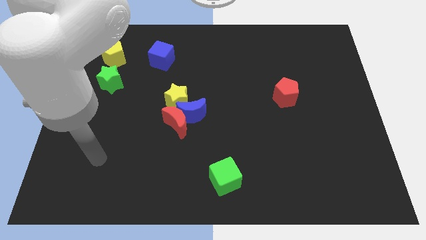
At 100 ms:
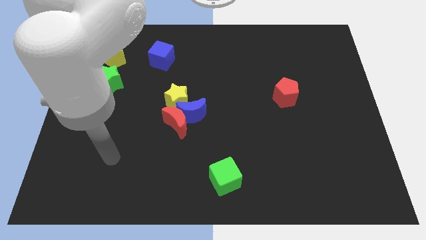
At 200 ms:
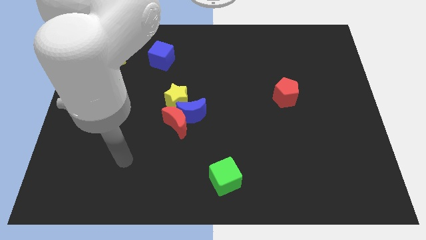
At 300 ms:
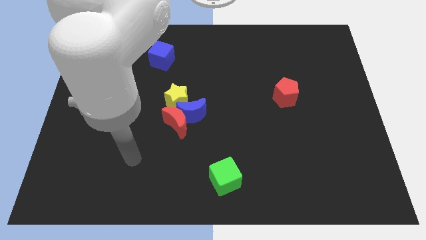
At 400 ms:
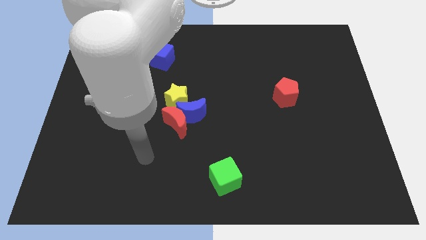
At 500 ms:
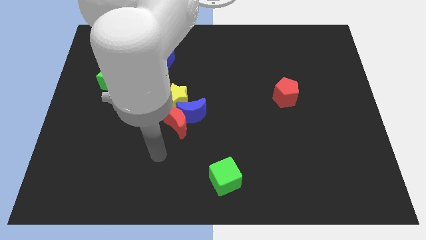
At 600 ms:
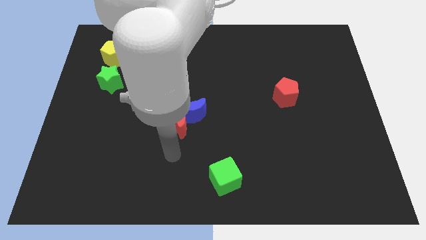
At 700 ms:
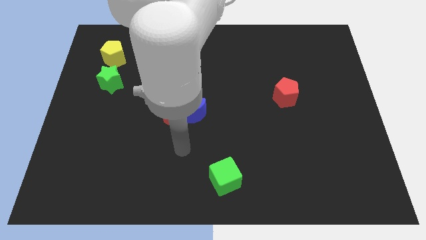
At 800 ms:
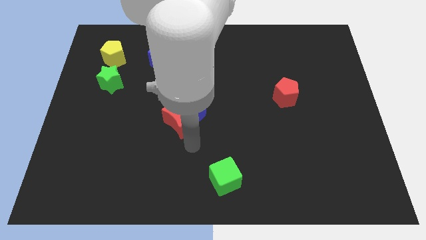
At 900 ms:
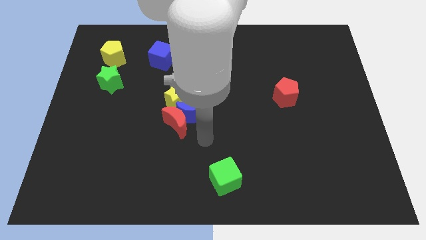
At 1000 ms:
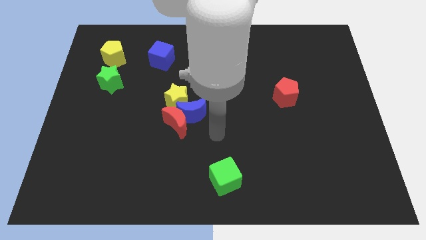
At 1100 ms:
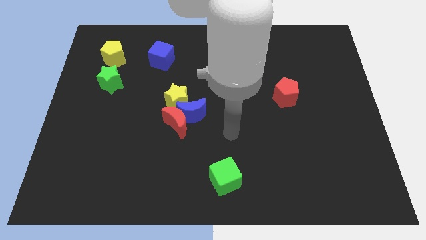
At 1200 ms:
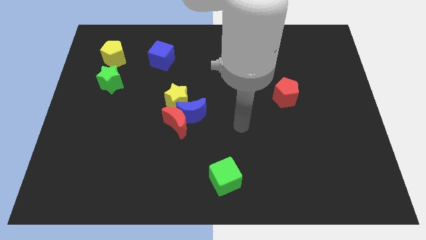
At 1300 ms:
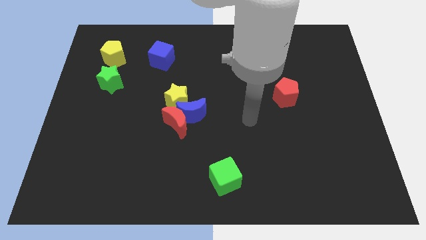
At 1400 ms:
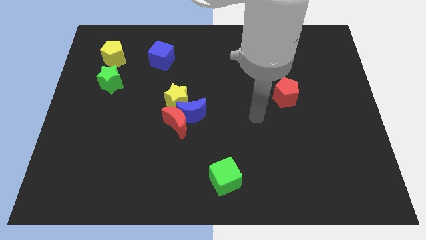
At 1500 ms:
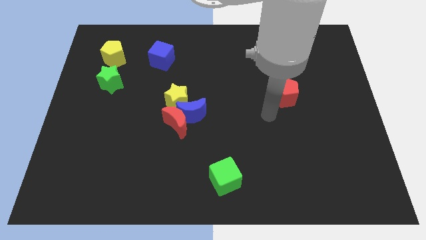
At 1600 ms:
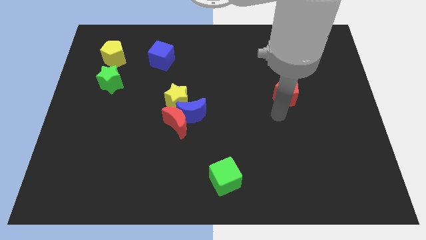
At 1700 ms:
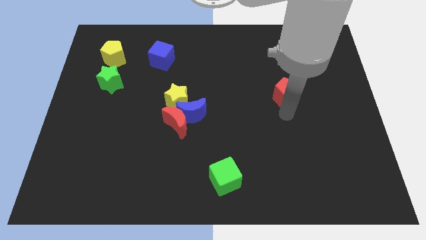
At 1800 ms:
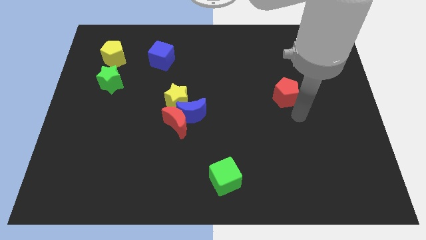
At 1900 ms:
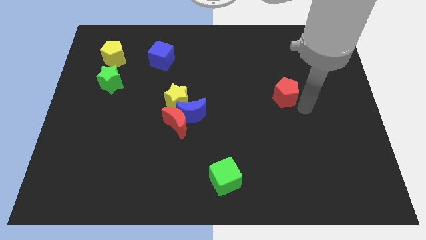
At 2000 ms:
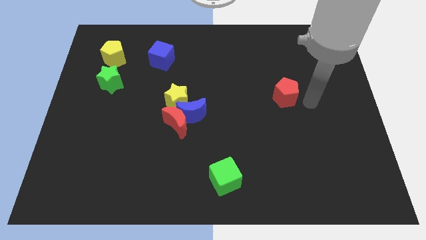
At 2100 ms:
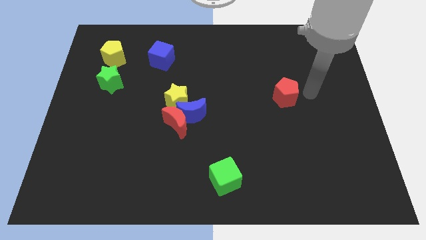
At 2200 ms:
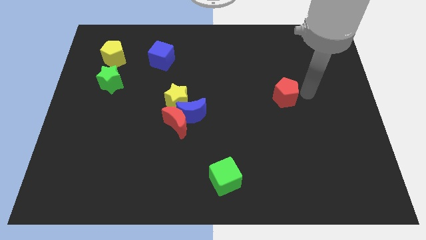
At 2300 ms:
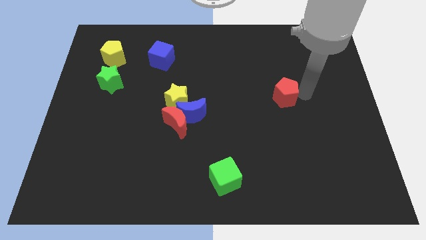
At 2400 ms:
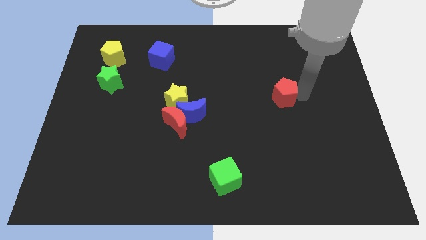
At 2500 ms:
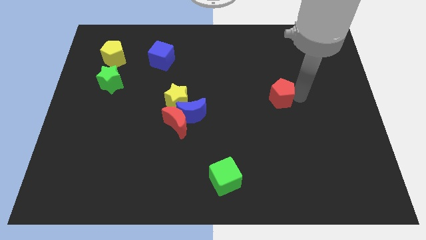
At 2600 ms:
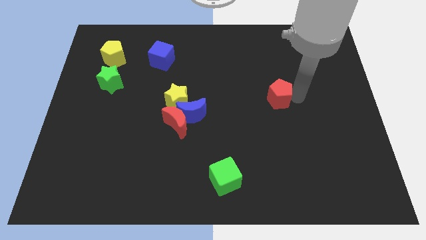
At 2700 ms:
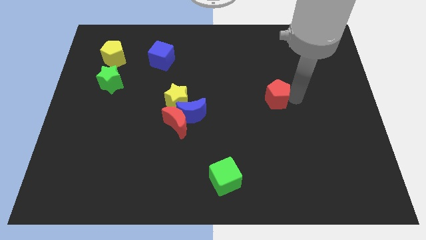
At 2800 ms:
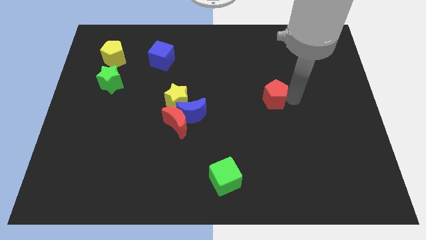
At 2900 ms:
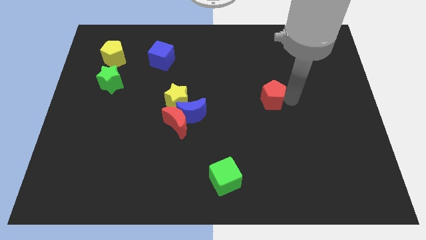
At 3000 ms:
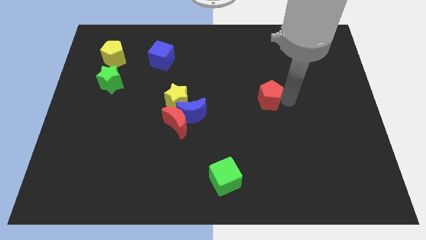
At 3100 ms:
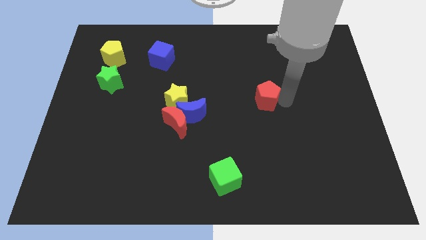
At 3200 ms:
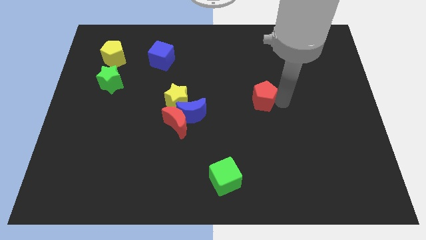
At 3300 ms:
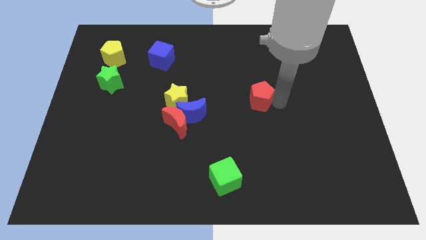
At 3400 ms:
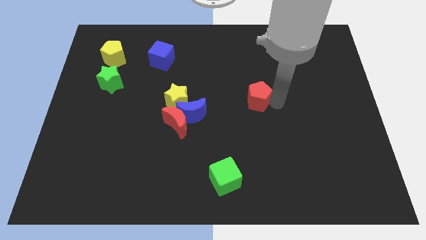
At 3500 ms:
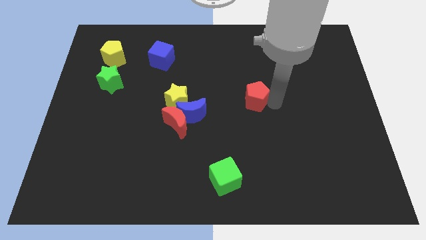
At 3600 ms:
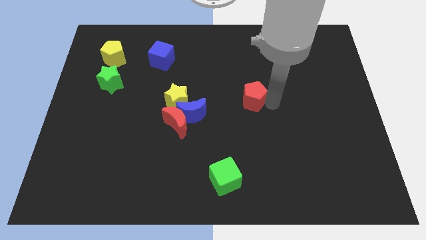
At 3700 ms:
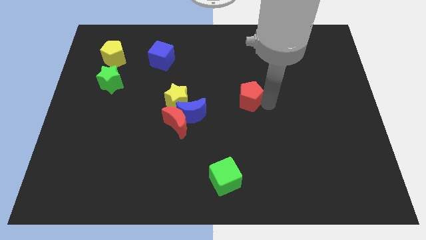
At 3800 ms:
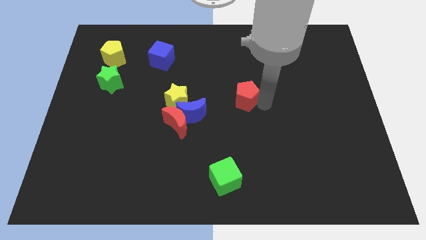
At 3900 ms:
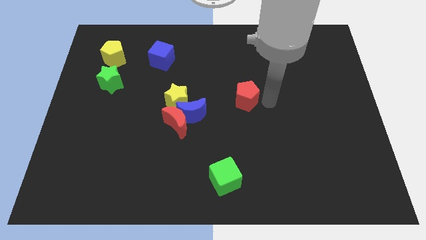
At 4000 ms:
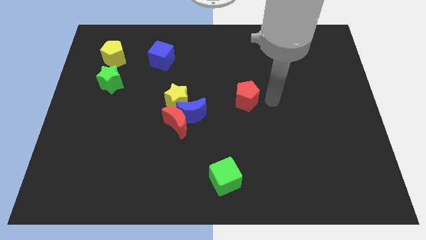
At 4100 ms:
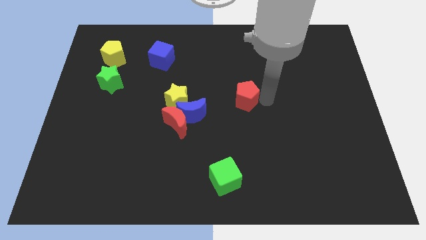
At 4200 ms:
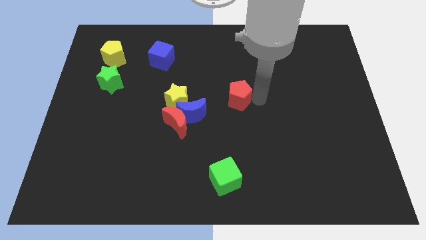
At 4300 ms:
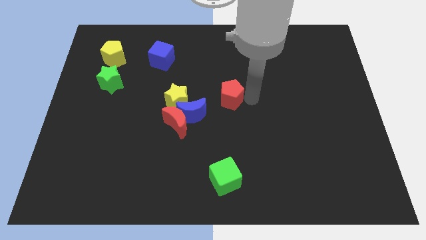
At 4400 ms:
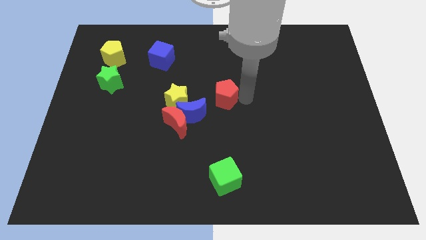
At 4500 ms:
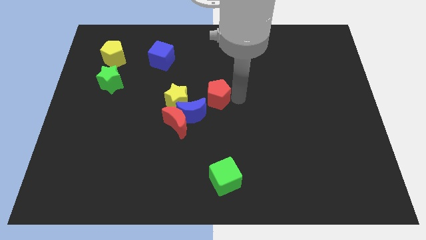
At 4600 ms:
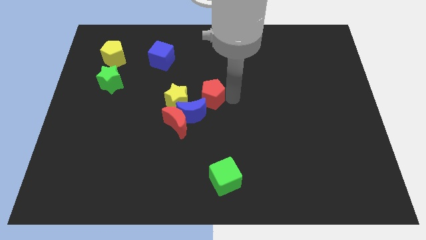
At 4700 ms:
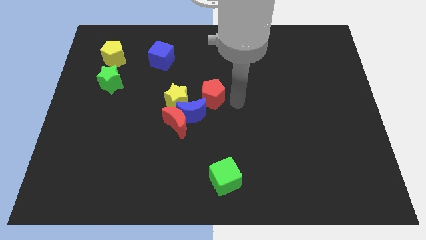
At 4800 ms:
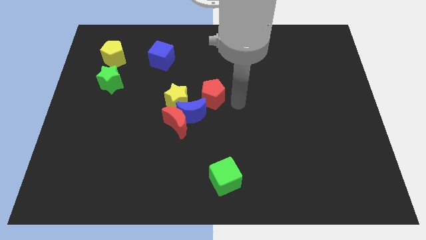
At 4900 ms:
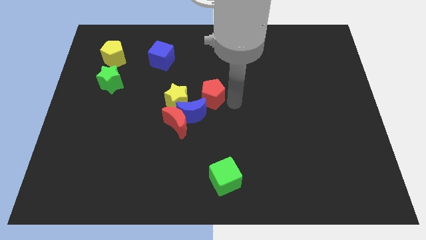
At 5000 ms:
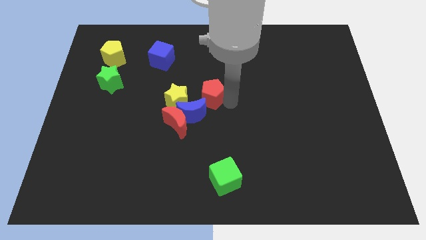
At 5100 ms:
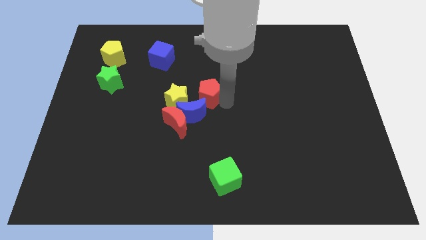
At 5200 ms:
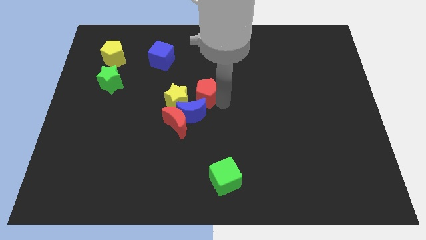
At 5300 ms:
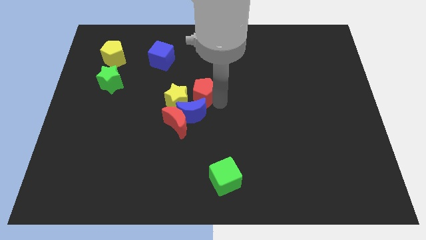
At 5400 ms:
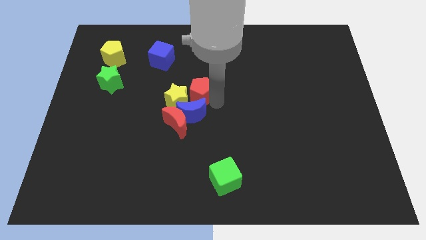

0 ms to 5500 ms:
push the red pentagon to the top side of the red moon

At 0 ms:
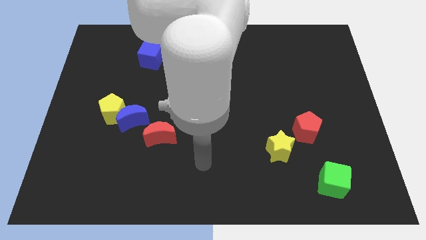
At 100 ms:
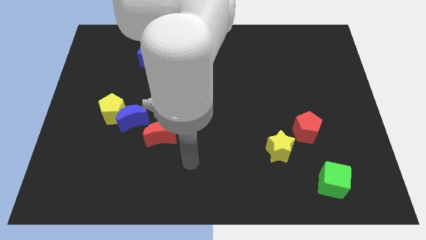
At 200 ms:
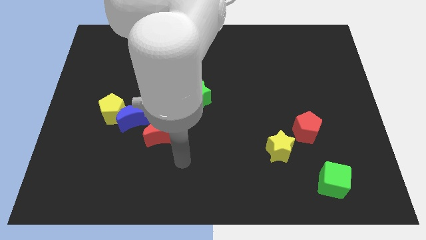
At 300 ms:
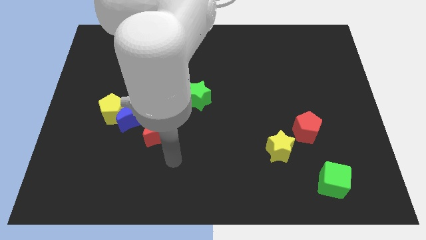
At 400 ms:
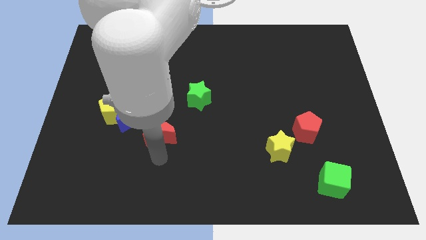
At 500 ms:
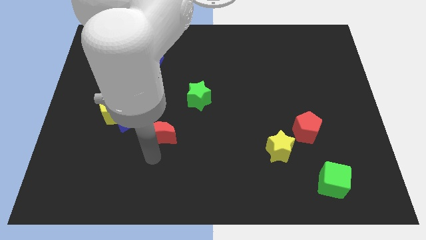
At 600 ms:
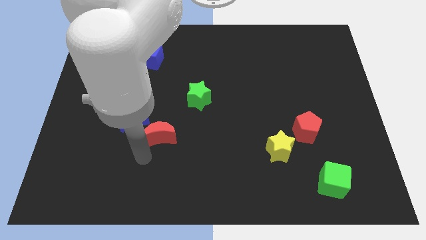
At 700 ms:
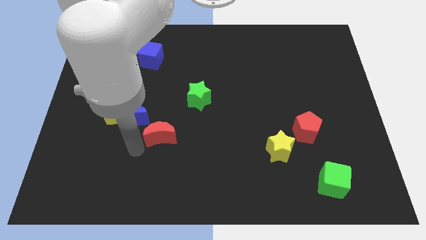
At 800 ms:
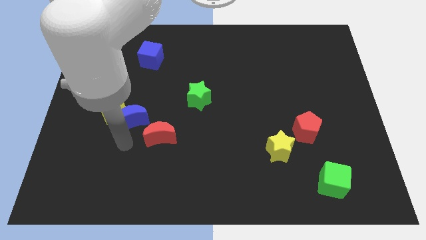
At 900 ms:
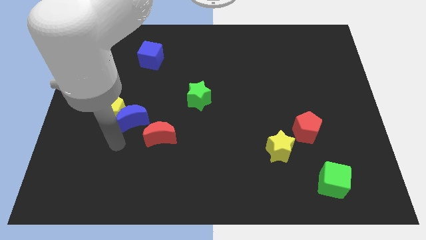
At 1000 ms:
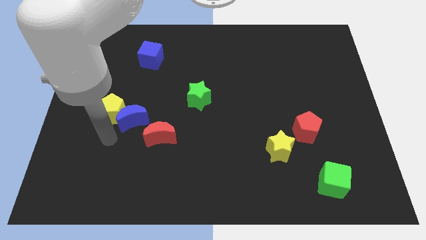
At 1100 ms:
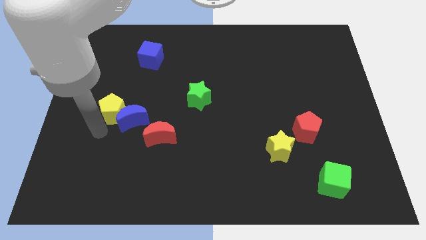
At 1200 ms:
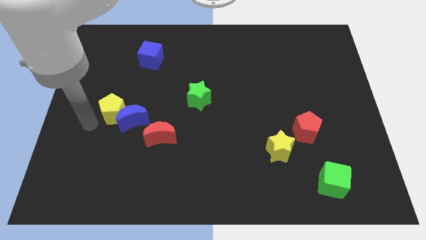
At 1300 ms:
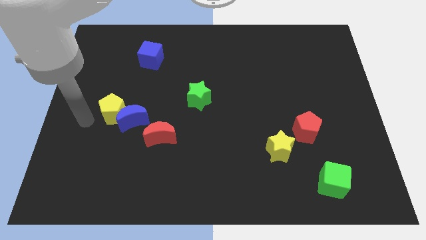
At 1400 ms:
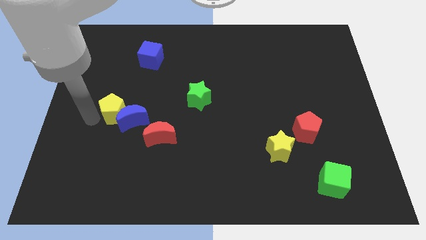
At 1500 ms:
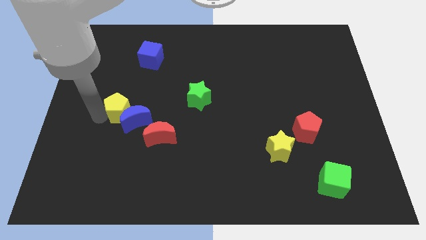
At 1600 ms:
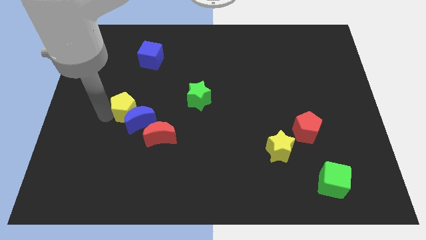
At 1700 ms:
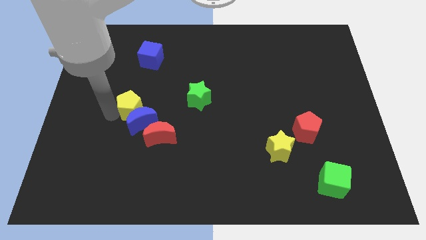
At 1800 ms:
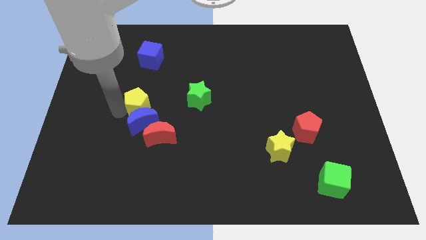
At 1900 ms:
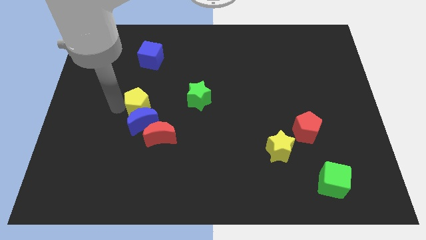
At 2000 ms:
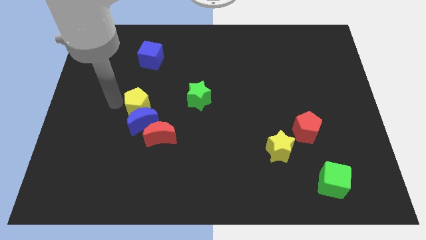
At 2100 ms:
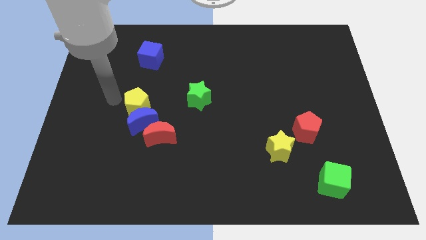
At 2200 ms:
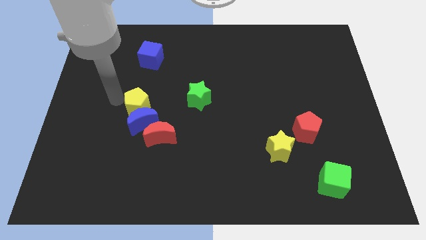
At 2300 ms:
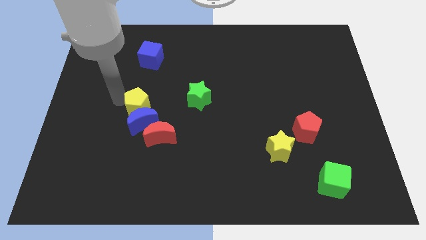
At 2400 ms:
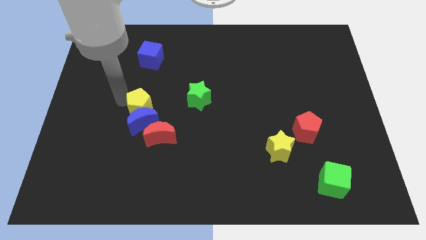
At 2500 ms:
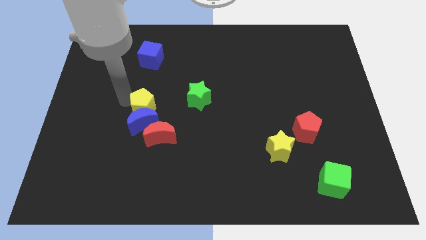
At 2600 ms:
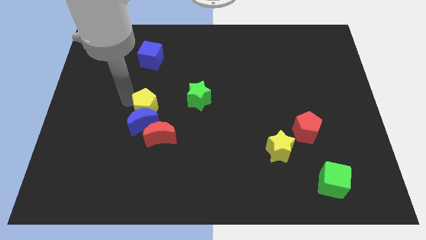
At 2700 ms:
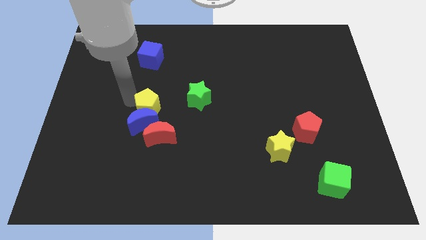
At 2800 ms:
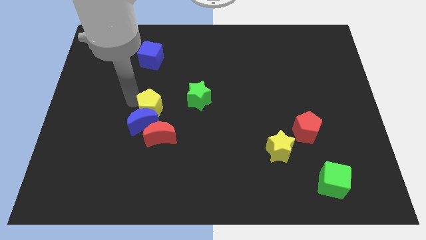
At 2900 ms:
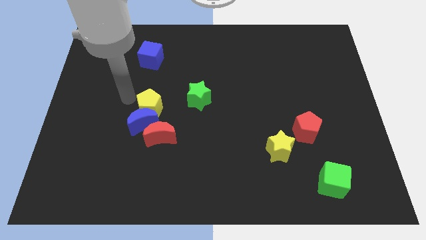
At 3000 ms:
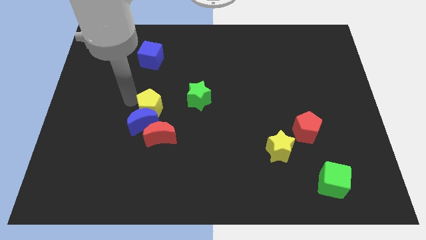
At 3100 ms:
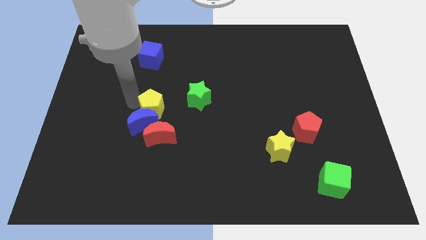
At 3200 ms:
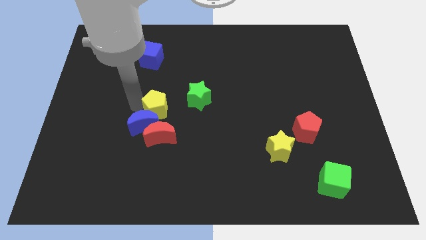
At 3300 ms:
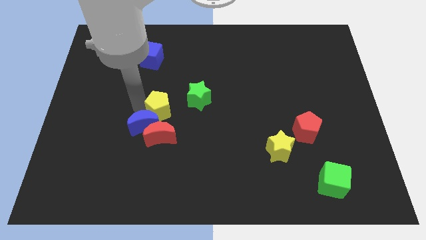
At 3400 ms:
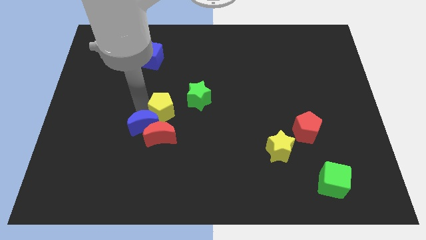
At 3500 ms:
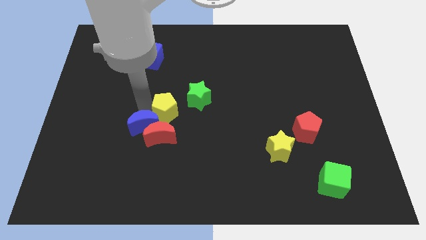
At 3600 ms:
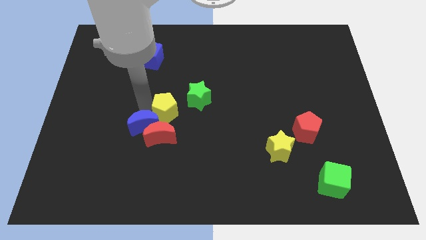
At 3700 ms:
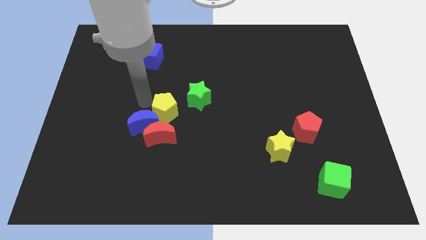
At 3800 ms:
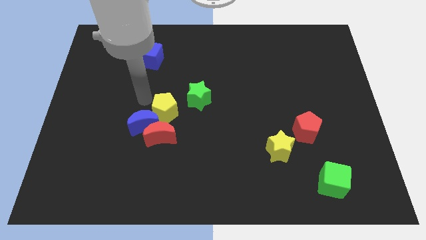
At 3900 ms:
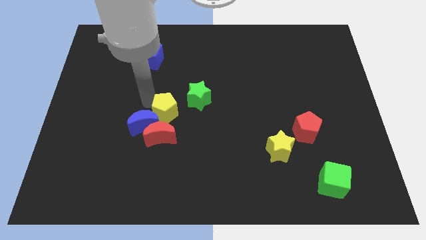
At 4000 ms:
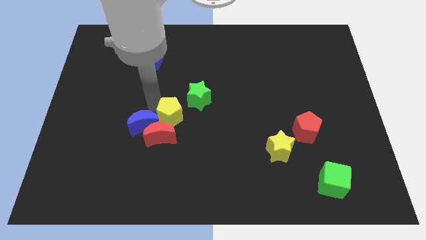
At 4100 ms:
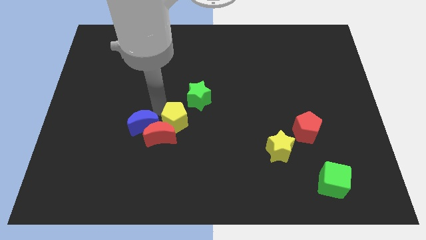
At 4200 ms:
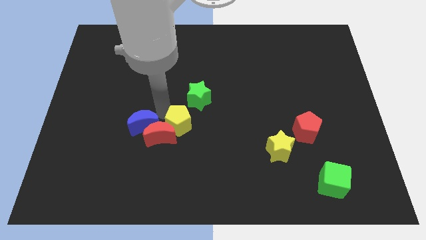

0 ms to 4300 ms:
push the yellow pentagon below the green star
